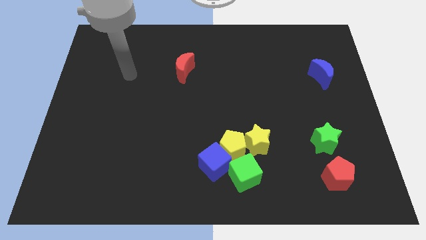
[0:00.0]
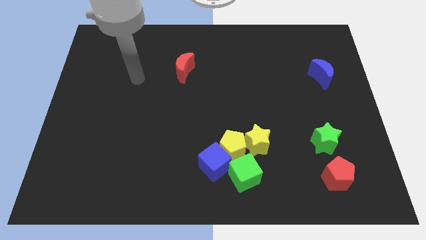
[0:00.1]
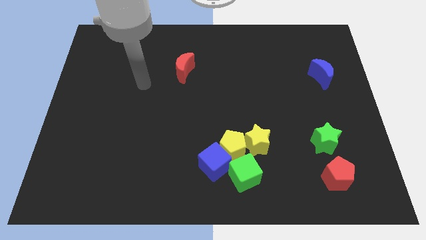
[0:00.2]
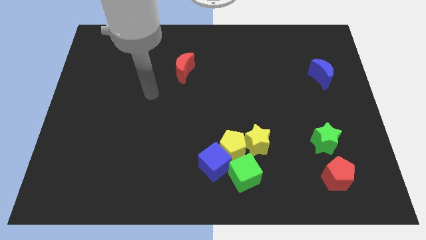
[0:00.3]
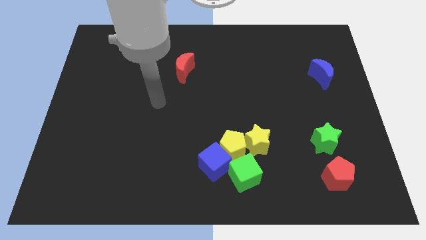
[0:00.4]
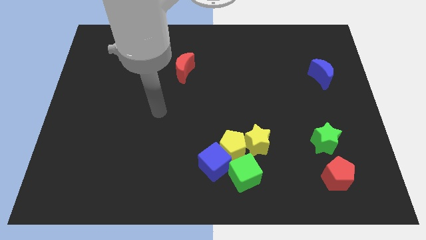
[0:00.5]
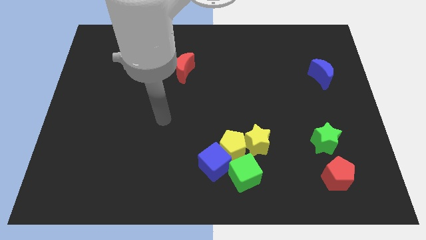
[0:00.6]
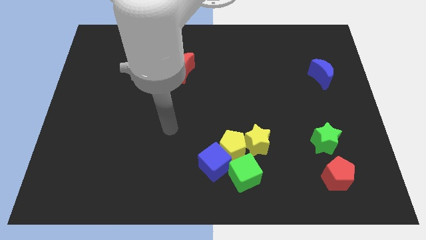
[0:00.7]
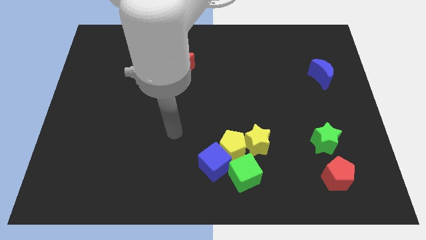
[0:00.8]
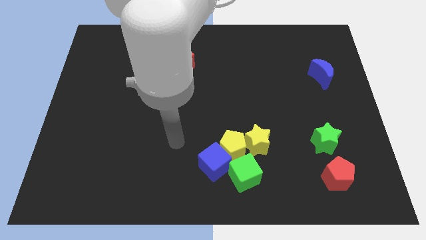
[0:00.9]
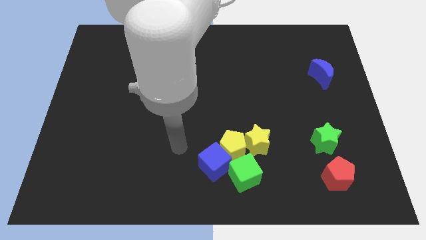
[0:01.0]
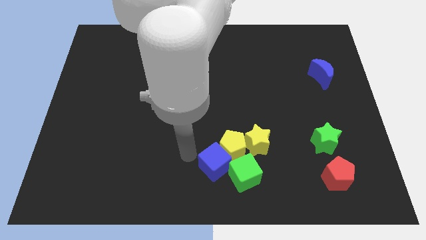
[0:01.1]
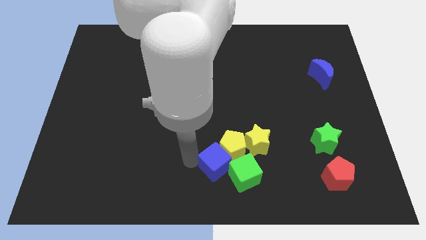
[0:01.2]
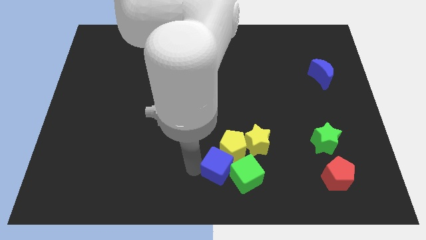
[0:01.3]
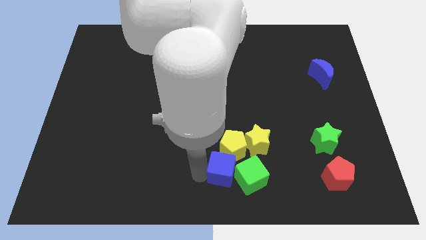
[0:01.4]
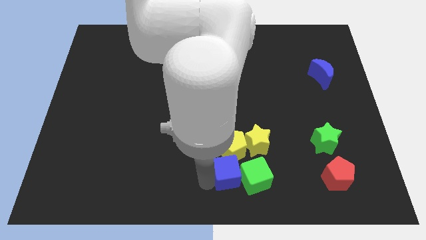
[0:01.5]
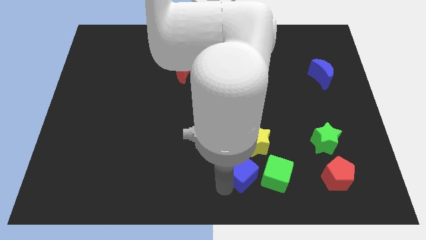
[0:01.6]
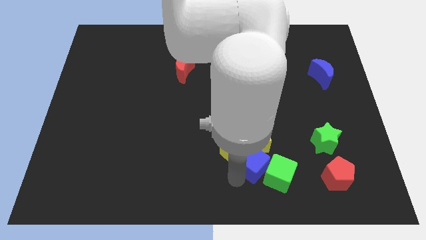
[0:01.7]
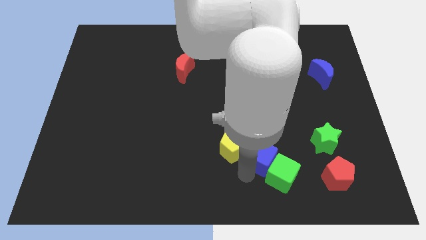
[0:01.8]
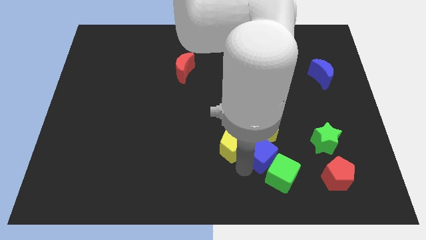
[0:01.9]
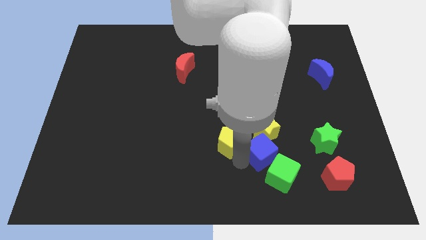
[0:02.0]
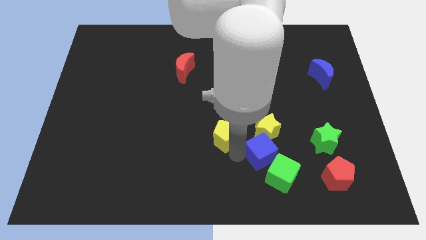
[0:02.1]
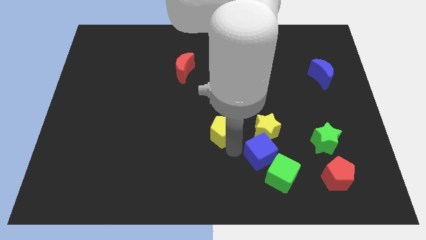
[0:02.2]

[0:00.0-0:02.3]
move the yellow pentagon away from the yellow star, blue cube, and green cube

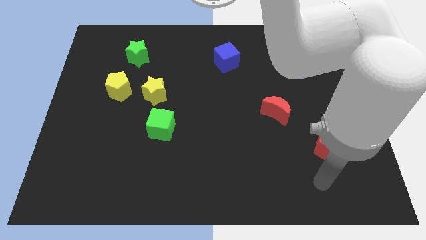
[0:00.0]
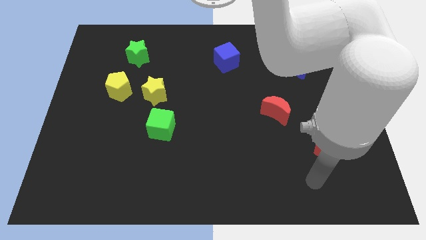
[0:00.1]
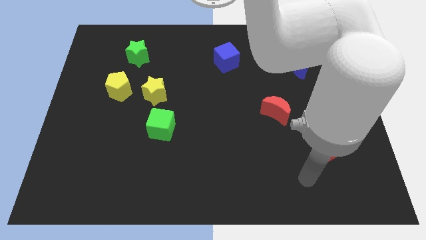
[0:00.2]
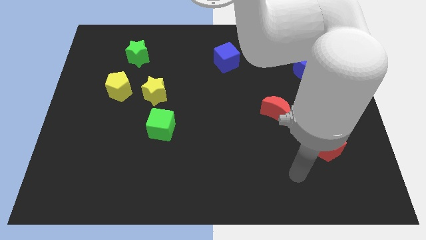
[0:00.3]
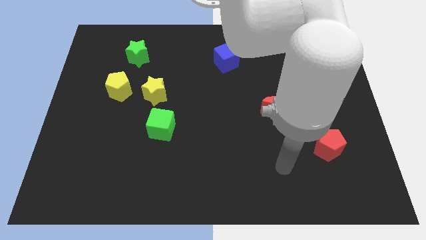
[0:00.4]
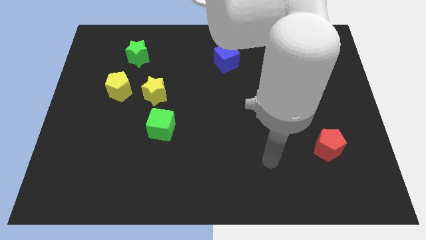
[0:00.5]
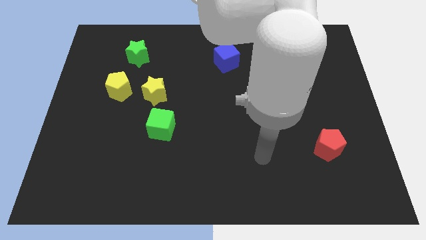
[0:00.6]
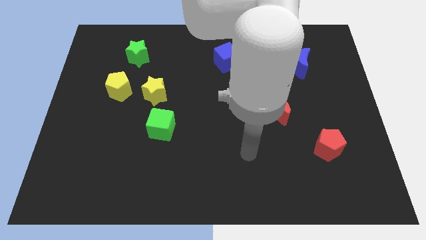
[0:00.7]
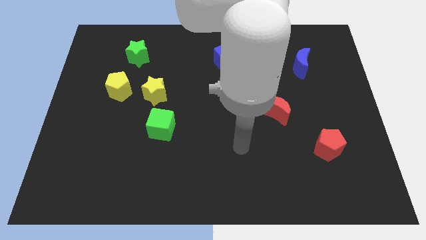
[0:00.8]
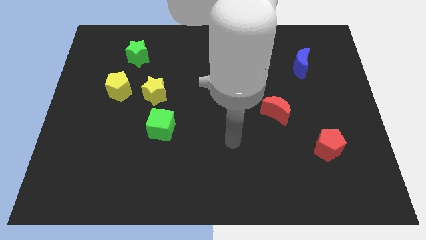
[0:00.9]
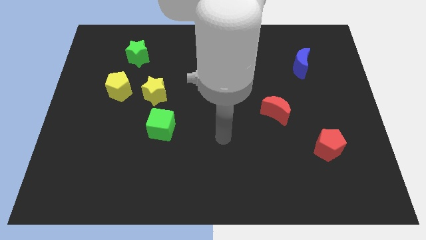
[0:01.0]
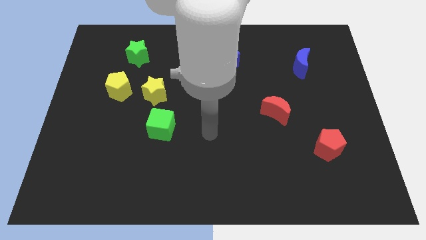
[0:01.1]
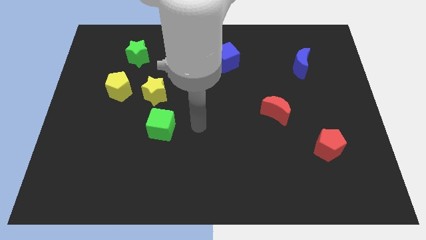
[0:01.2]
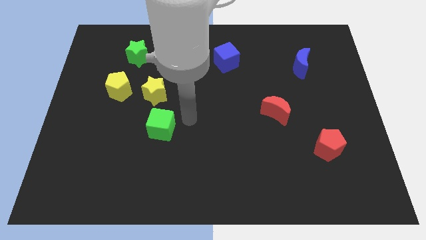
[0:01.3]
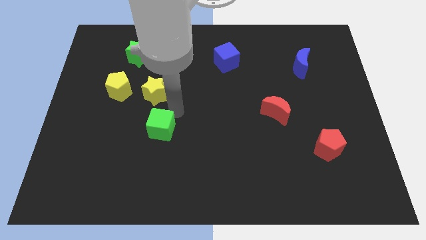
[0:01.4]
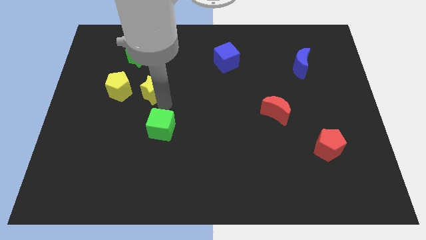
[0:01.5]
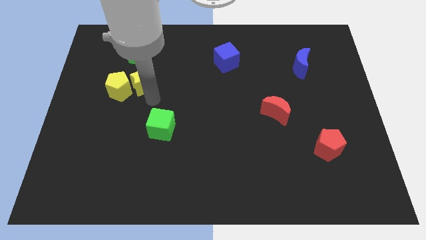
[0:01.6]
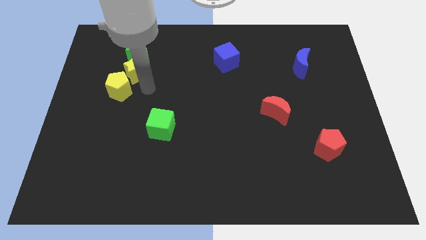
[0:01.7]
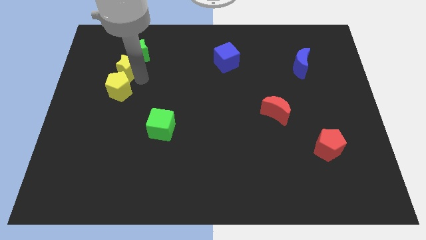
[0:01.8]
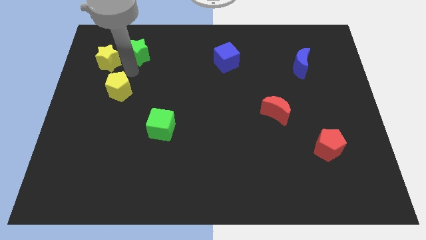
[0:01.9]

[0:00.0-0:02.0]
separate the yellow pentagon from the yellow star

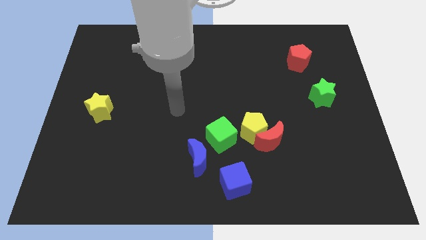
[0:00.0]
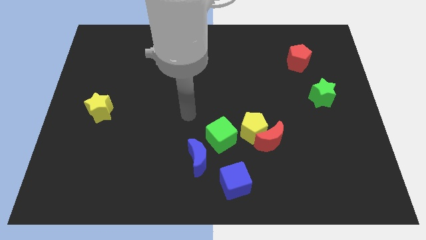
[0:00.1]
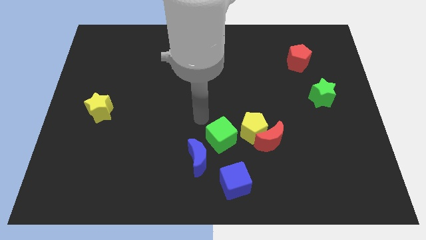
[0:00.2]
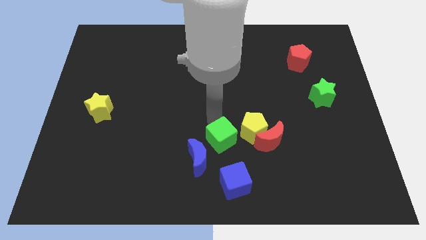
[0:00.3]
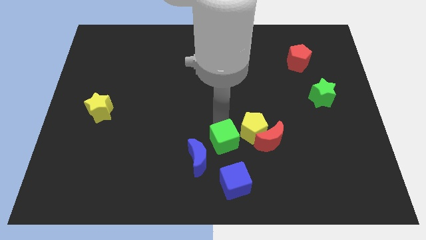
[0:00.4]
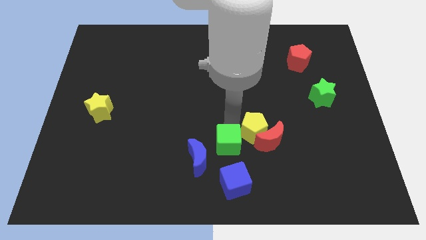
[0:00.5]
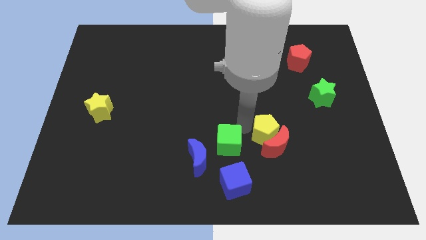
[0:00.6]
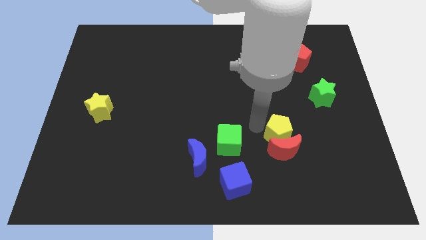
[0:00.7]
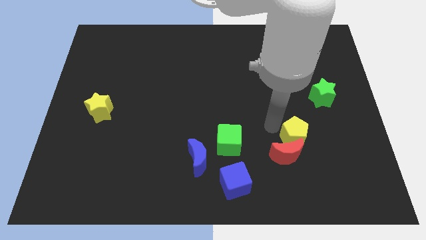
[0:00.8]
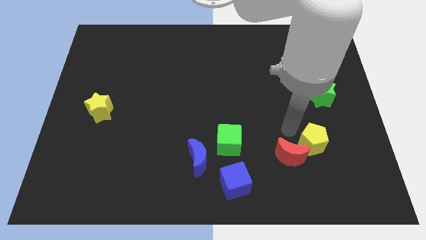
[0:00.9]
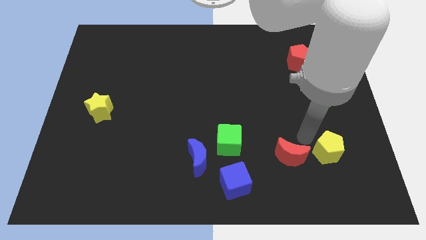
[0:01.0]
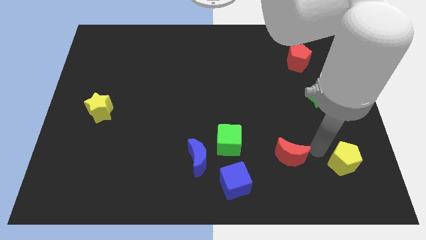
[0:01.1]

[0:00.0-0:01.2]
pull the red moon apart from the yellow pentagon

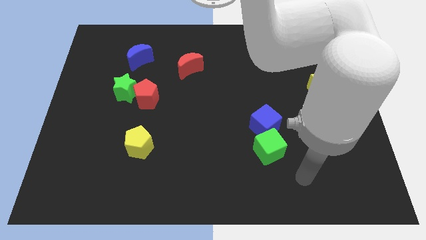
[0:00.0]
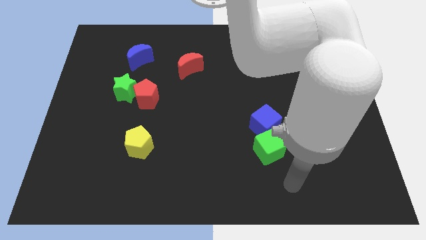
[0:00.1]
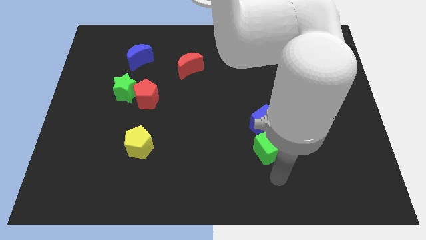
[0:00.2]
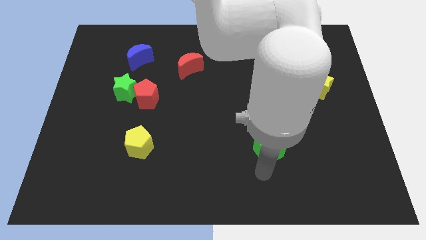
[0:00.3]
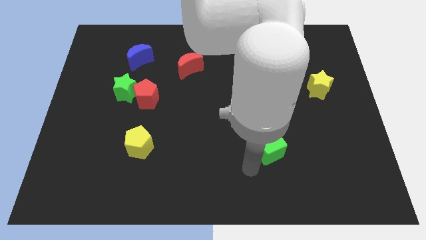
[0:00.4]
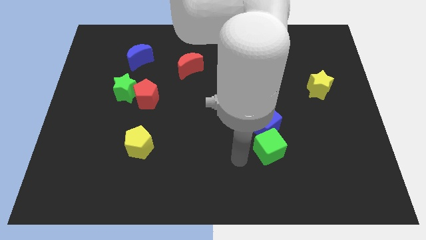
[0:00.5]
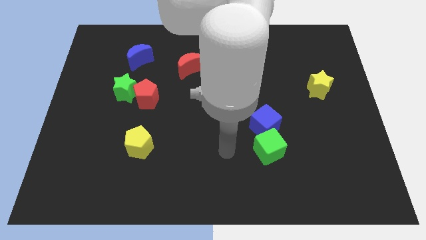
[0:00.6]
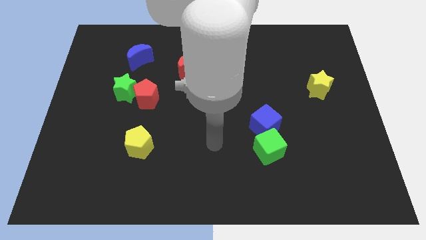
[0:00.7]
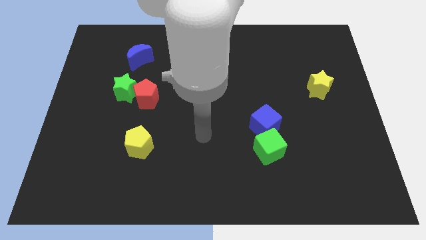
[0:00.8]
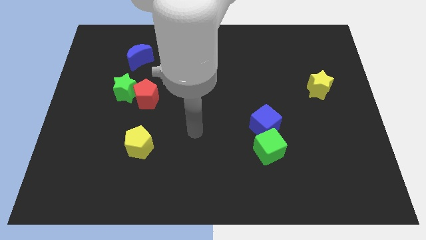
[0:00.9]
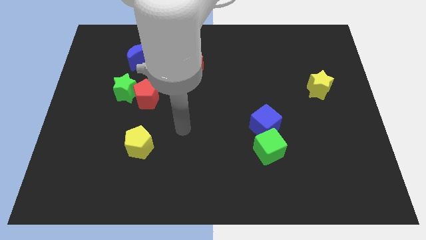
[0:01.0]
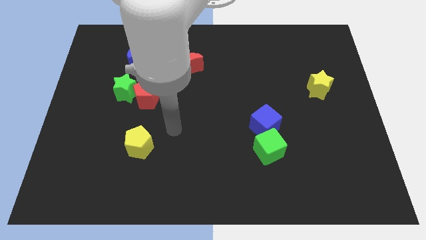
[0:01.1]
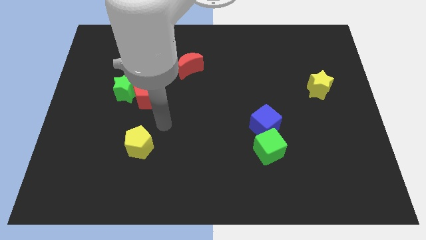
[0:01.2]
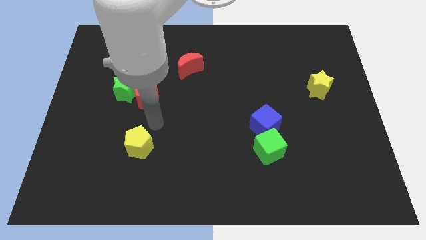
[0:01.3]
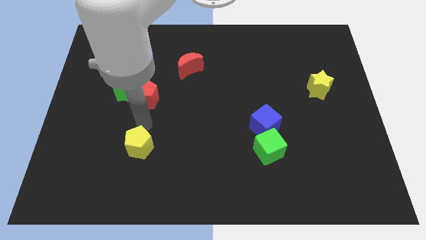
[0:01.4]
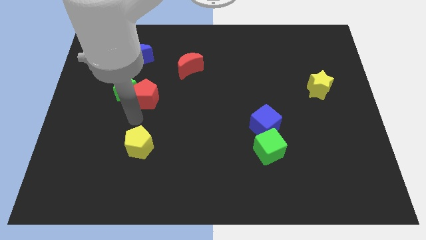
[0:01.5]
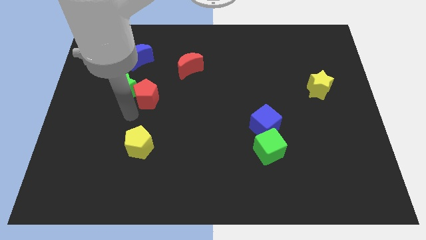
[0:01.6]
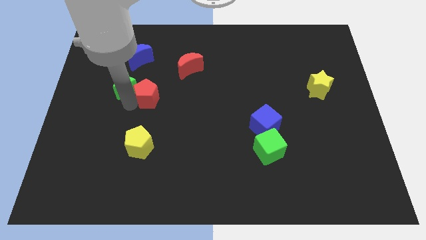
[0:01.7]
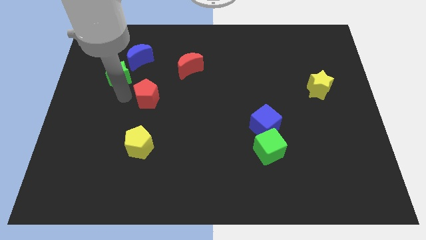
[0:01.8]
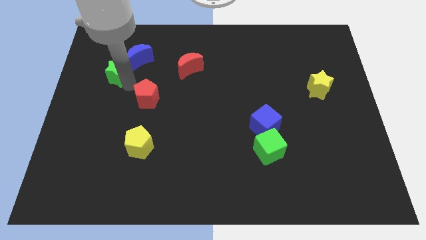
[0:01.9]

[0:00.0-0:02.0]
pull the red pentagon apart from the green star

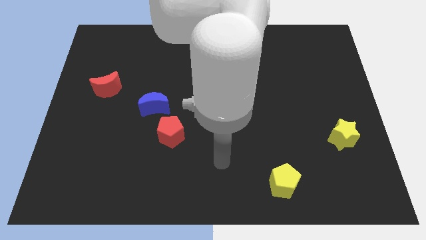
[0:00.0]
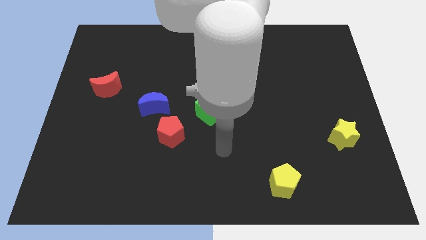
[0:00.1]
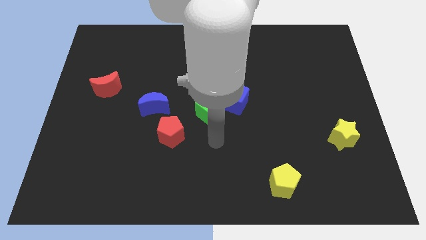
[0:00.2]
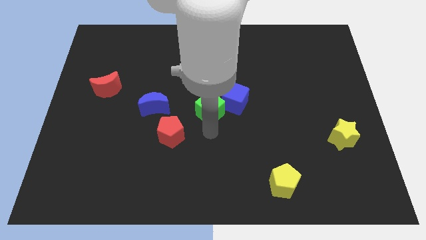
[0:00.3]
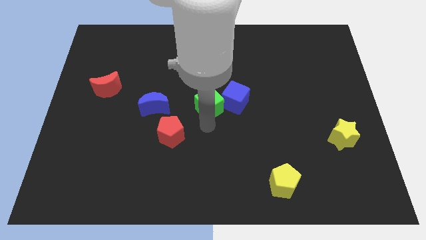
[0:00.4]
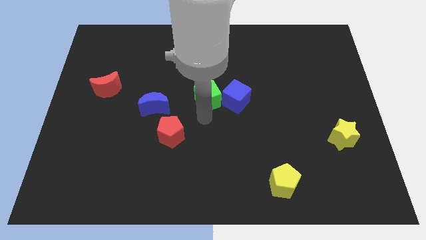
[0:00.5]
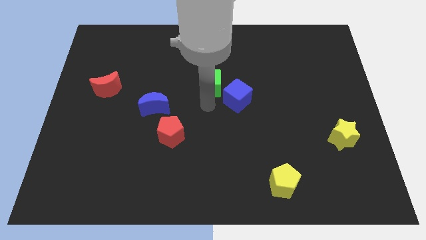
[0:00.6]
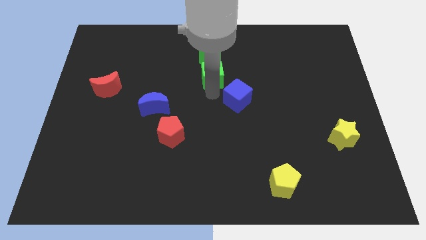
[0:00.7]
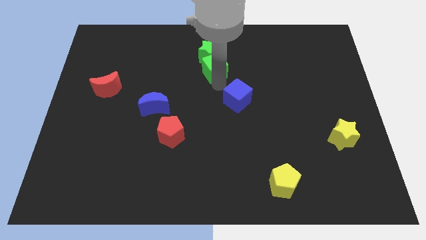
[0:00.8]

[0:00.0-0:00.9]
separate the blue cube from the green cube

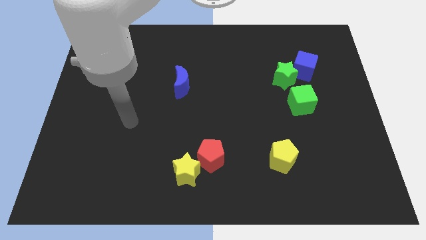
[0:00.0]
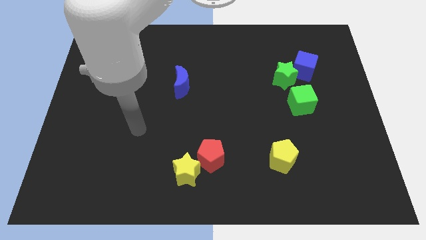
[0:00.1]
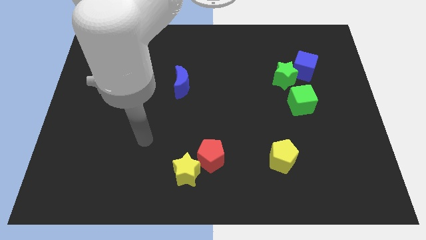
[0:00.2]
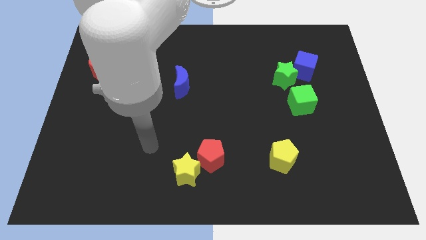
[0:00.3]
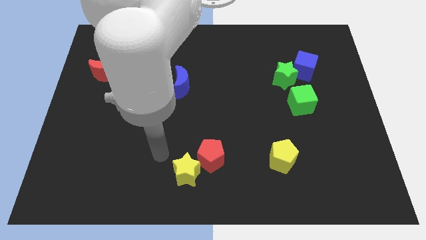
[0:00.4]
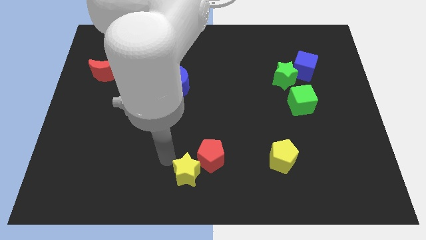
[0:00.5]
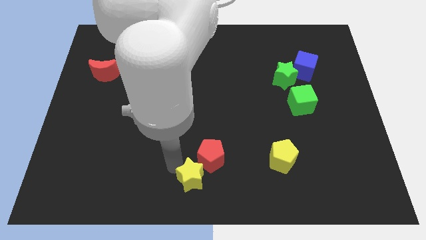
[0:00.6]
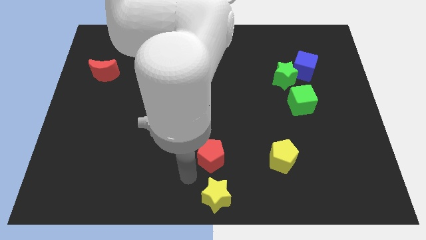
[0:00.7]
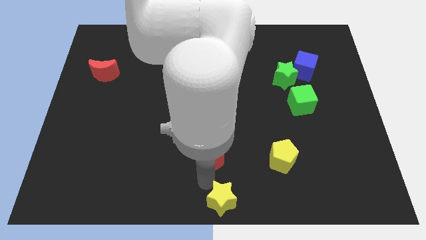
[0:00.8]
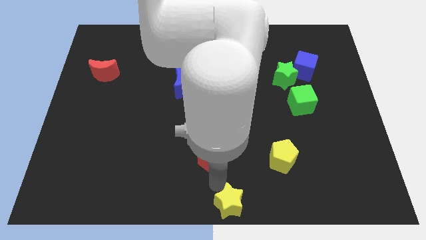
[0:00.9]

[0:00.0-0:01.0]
pull the red pentagon apart from the yellow star
